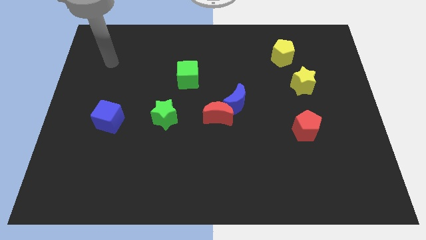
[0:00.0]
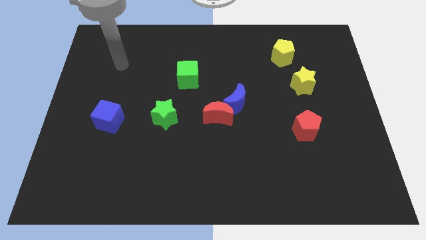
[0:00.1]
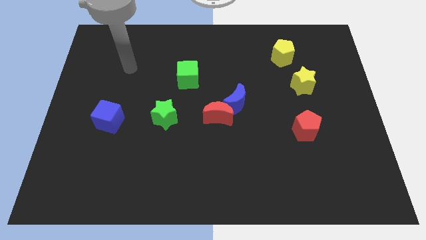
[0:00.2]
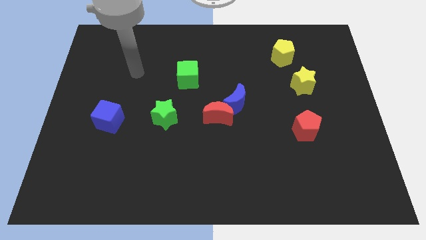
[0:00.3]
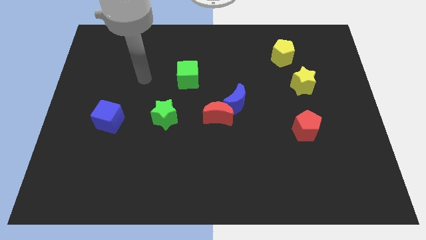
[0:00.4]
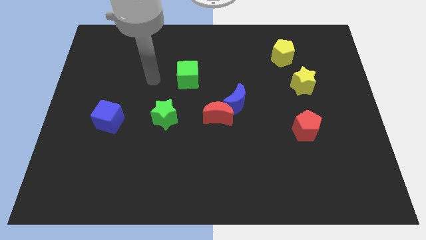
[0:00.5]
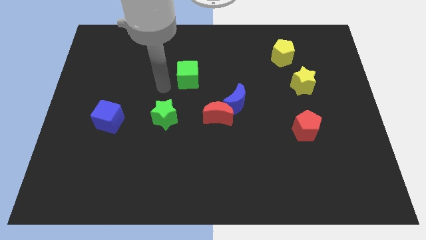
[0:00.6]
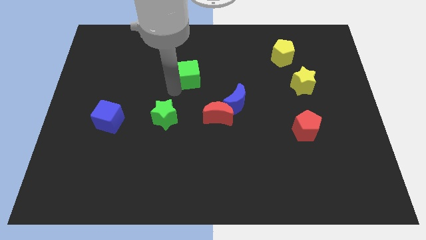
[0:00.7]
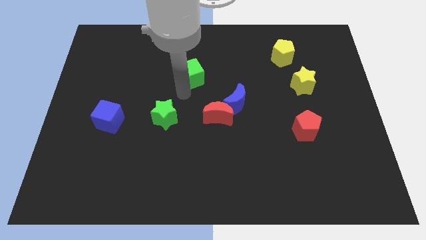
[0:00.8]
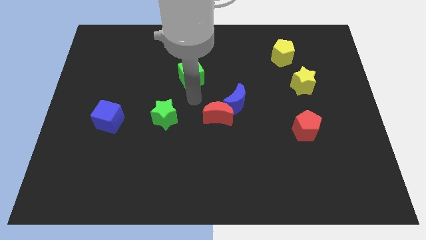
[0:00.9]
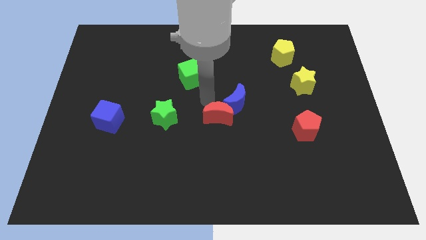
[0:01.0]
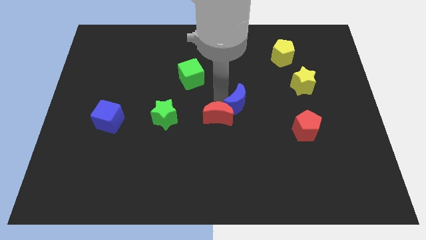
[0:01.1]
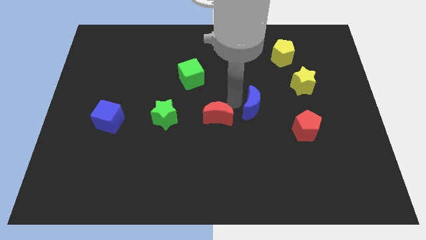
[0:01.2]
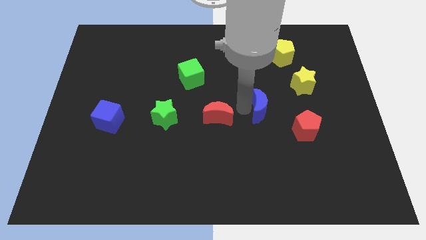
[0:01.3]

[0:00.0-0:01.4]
move the red moon away from the blue moon

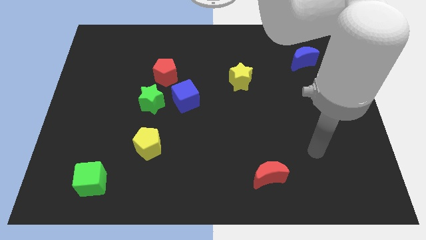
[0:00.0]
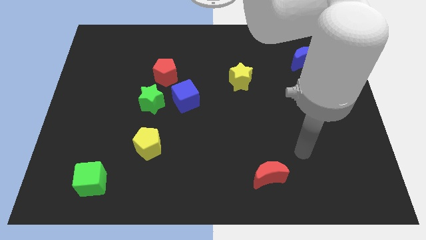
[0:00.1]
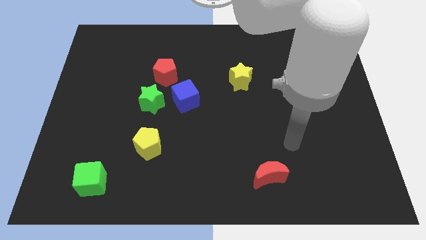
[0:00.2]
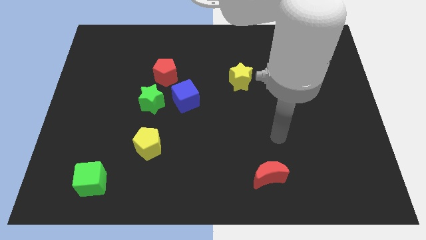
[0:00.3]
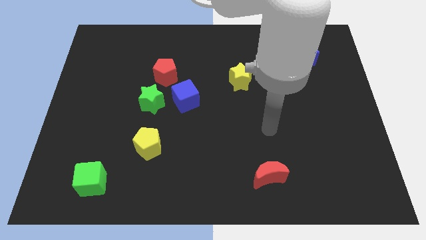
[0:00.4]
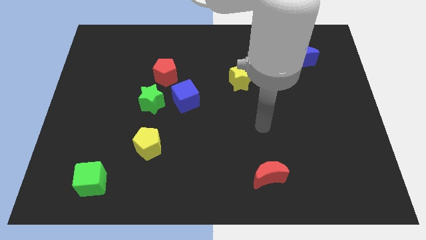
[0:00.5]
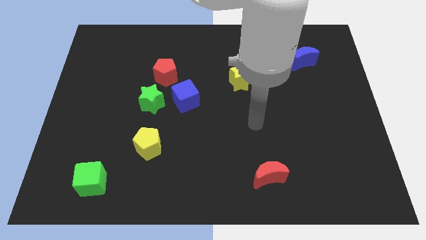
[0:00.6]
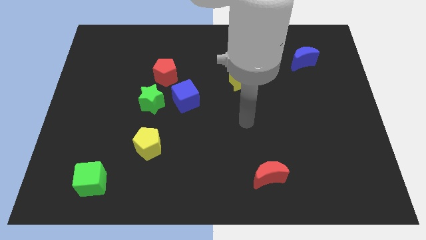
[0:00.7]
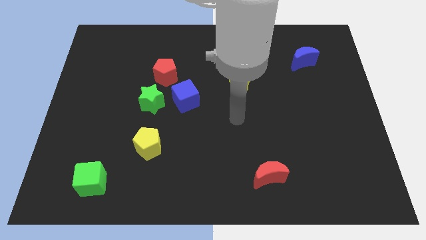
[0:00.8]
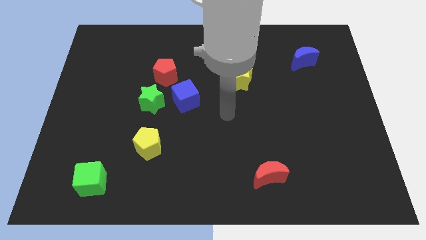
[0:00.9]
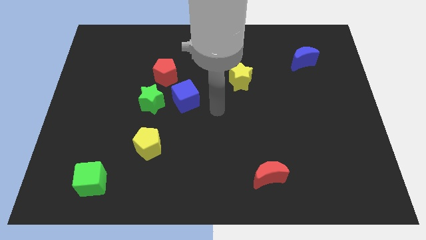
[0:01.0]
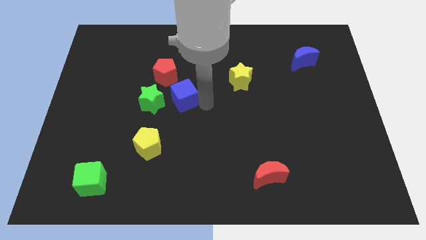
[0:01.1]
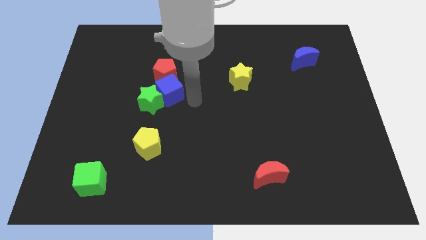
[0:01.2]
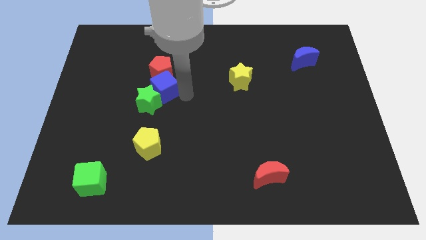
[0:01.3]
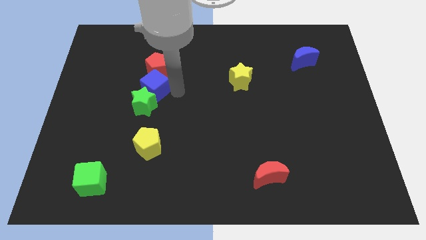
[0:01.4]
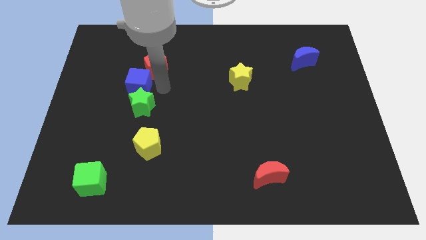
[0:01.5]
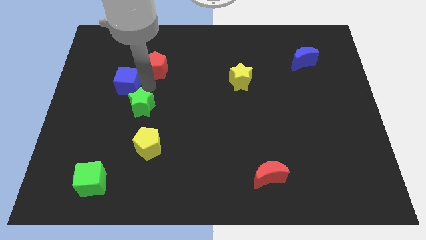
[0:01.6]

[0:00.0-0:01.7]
pull the green star apart from the blue cube and red pentagon

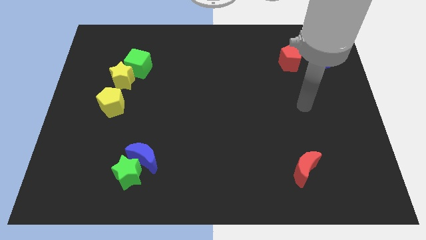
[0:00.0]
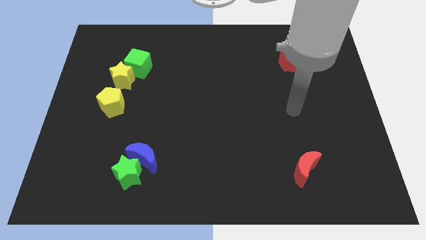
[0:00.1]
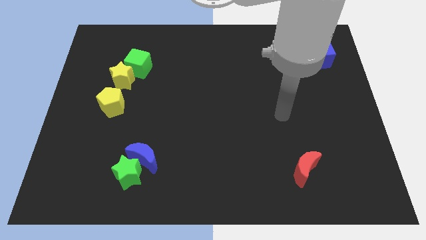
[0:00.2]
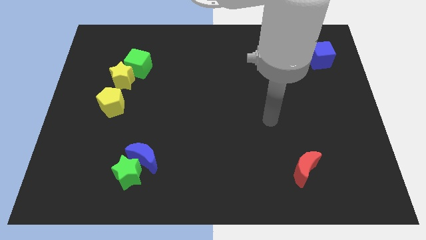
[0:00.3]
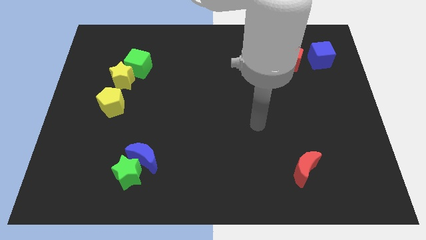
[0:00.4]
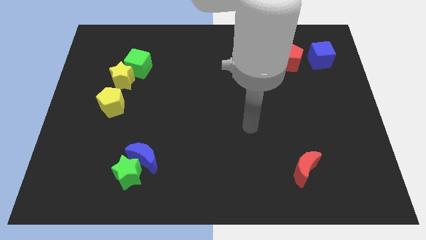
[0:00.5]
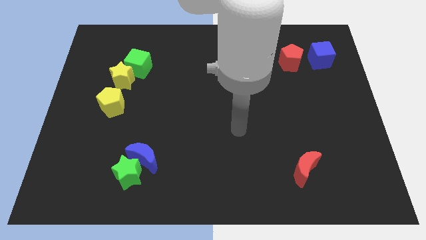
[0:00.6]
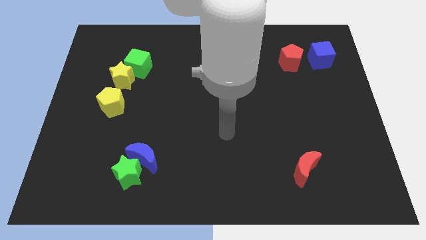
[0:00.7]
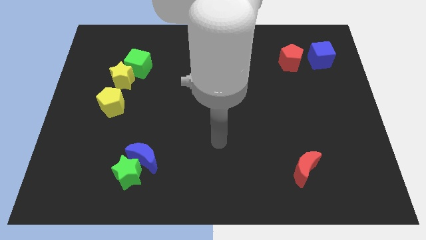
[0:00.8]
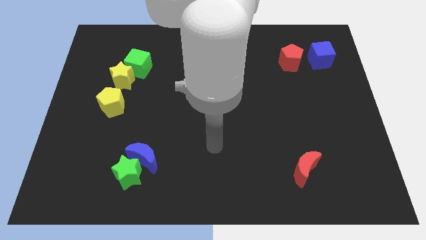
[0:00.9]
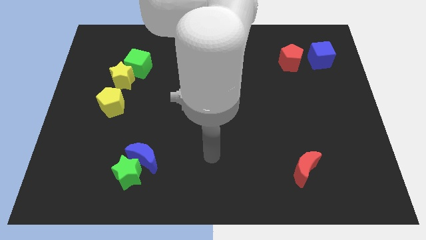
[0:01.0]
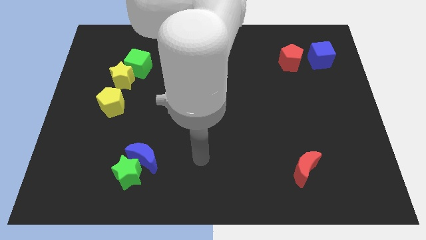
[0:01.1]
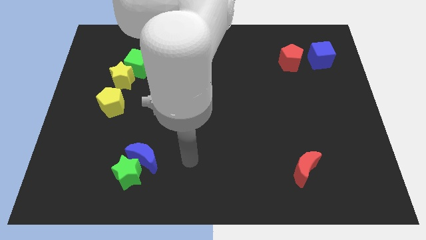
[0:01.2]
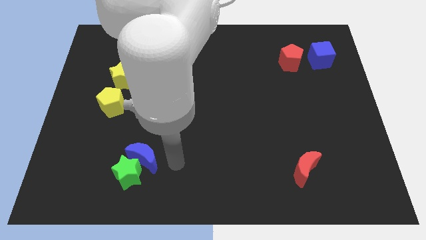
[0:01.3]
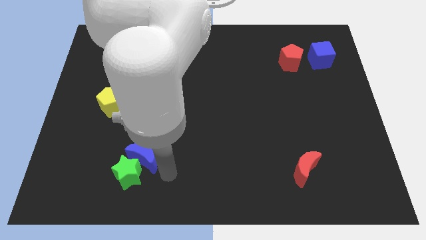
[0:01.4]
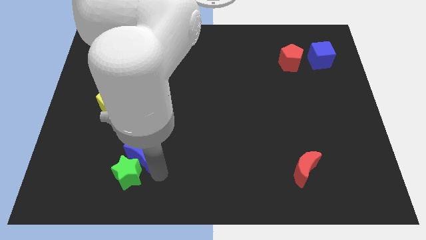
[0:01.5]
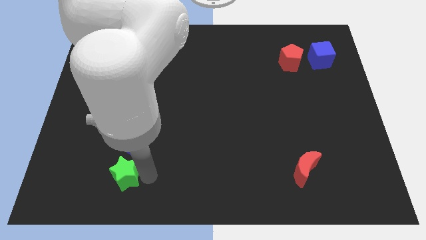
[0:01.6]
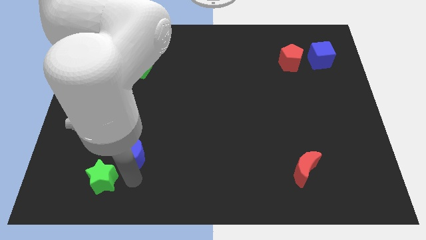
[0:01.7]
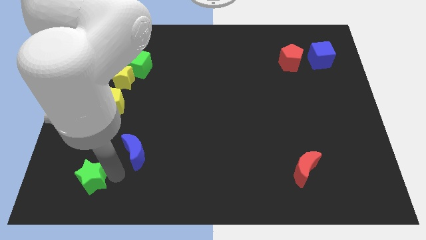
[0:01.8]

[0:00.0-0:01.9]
pull the blue moon apart from the green star

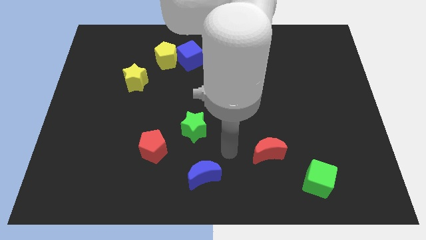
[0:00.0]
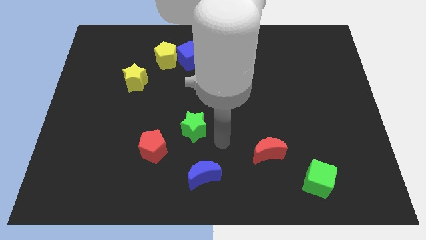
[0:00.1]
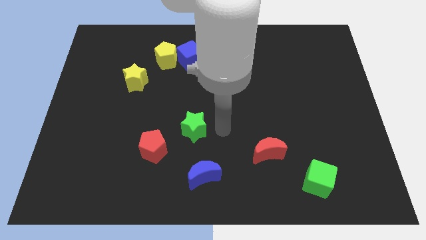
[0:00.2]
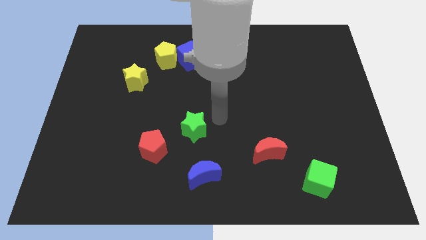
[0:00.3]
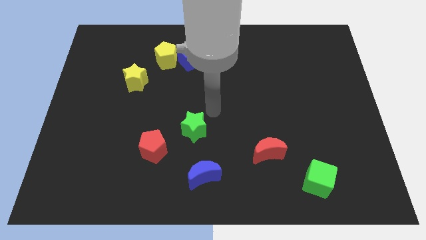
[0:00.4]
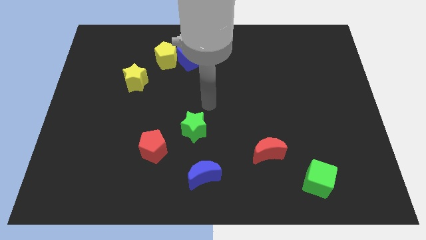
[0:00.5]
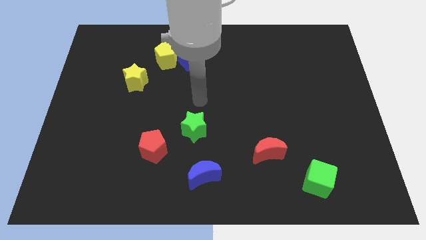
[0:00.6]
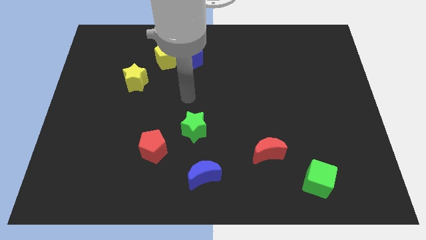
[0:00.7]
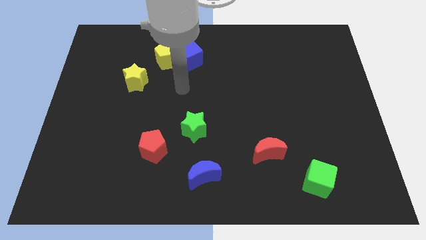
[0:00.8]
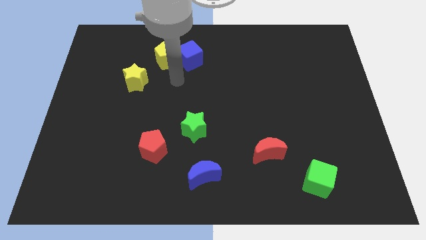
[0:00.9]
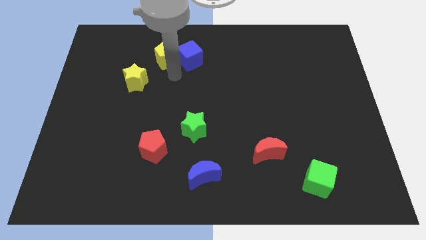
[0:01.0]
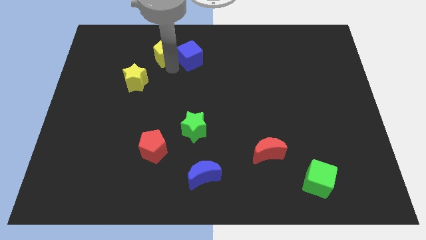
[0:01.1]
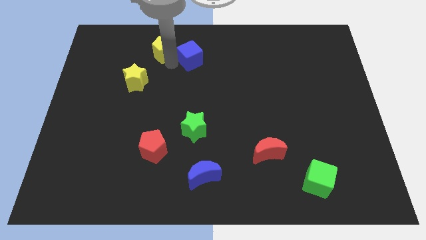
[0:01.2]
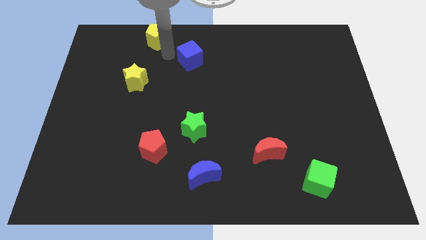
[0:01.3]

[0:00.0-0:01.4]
move the blue cube away from the yellow pentagon

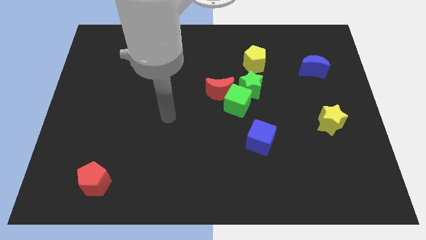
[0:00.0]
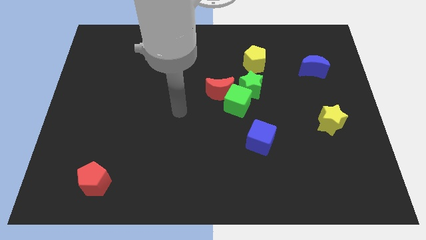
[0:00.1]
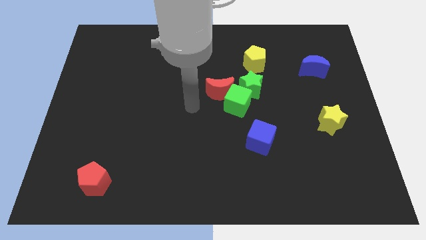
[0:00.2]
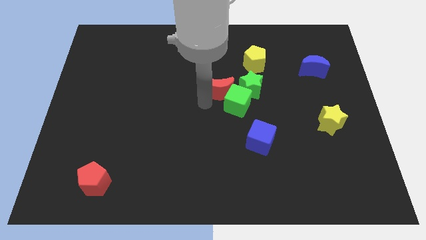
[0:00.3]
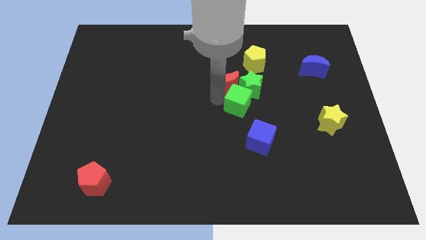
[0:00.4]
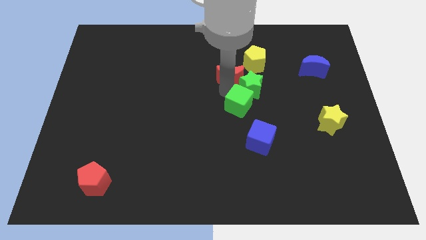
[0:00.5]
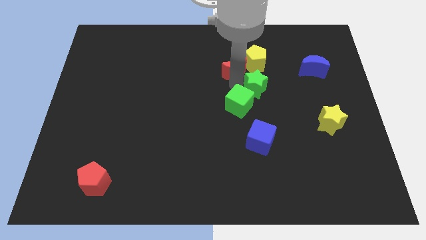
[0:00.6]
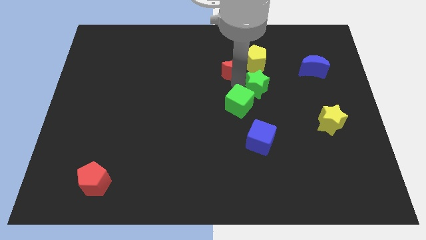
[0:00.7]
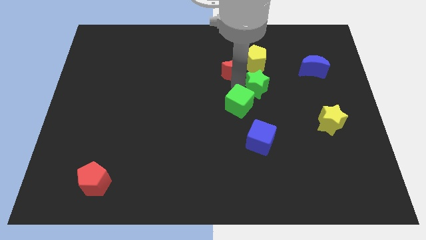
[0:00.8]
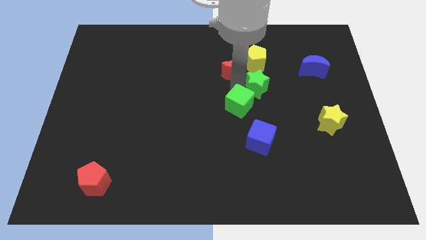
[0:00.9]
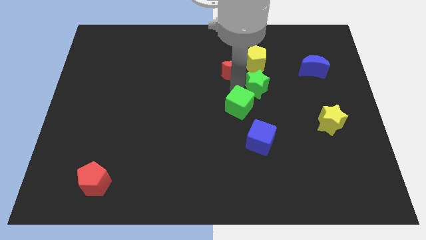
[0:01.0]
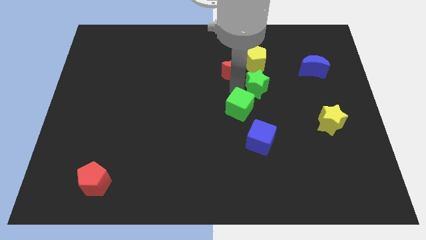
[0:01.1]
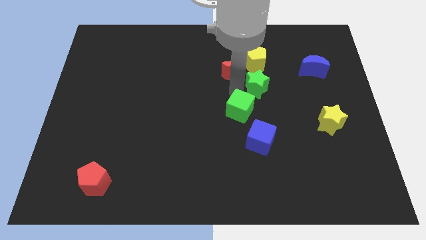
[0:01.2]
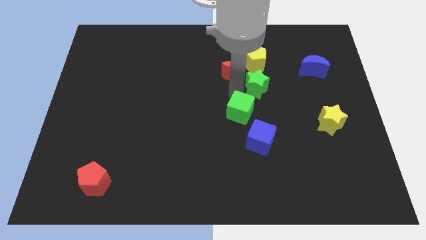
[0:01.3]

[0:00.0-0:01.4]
pull the green cube apart from the red moon and green star

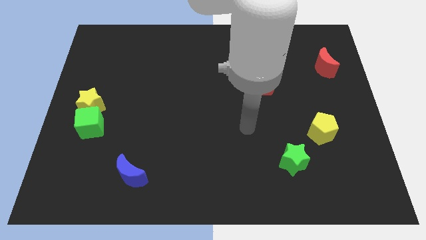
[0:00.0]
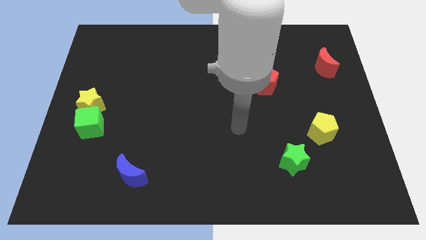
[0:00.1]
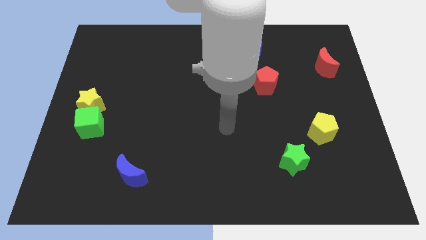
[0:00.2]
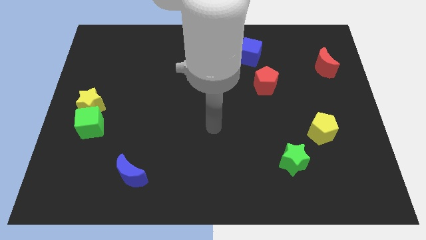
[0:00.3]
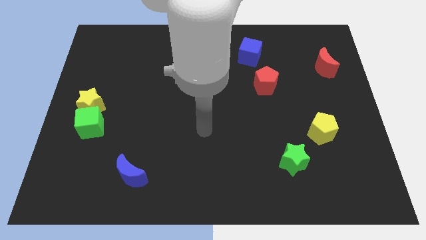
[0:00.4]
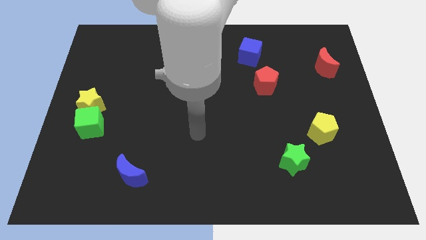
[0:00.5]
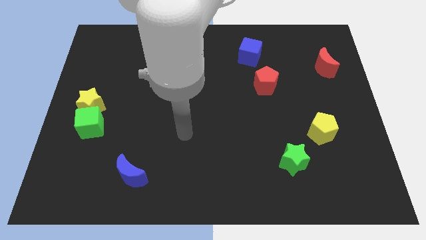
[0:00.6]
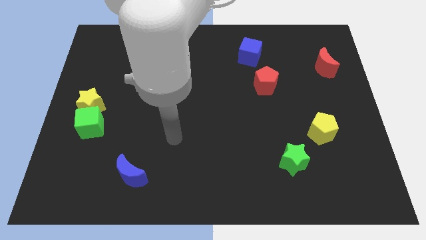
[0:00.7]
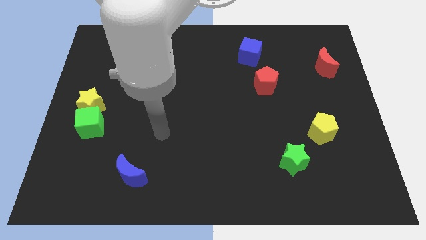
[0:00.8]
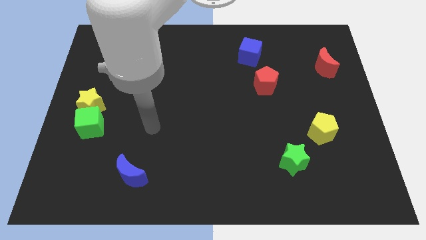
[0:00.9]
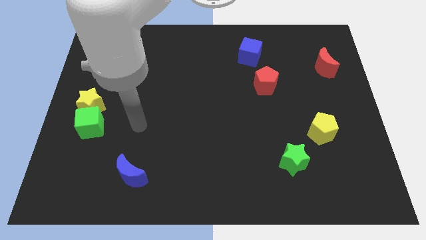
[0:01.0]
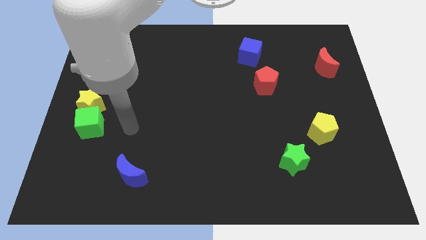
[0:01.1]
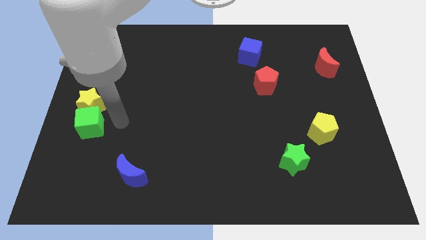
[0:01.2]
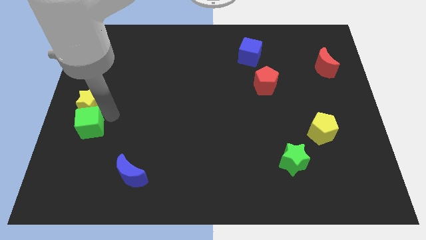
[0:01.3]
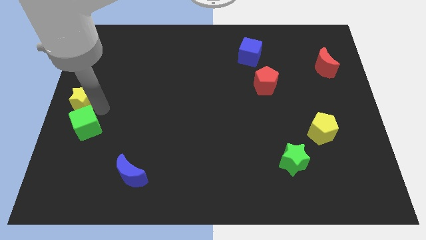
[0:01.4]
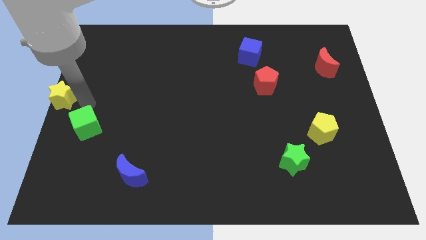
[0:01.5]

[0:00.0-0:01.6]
separate the green cube from the yellow star
